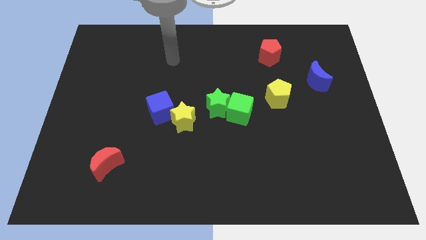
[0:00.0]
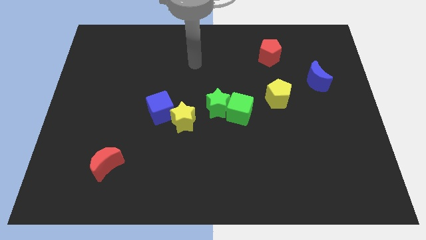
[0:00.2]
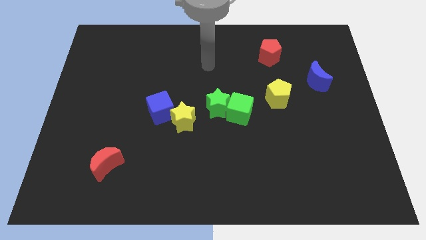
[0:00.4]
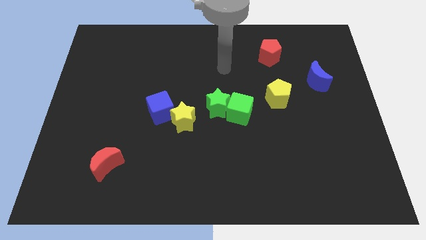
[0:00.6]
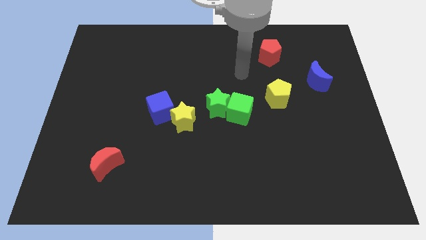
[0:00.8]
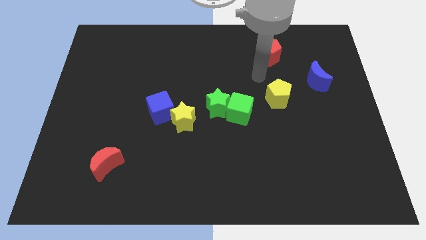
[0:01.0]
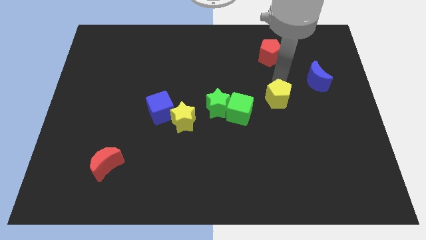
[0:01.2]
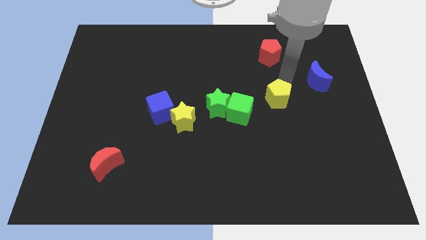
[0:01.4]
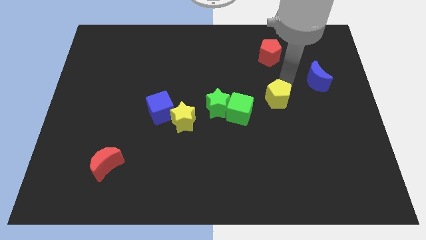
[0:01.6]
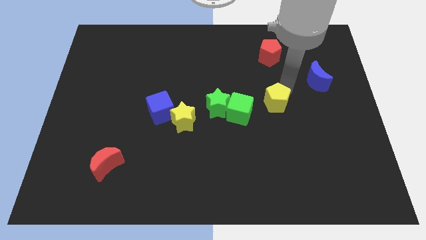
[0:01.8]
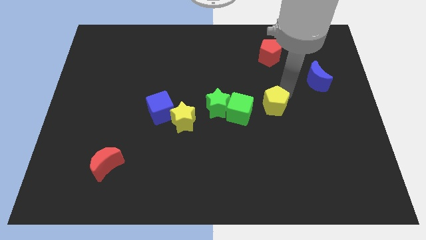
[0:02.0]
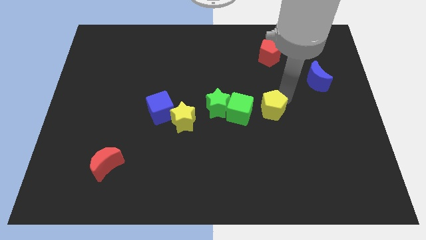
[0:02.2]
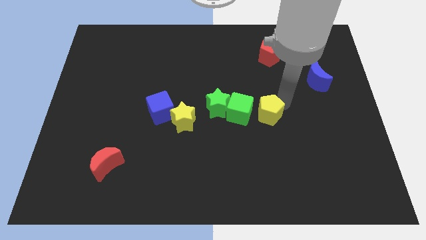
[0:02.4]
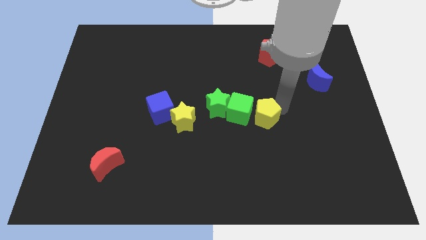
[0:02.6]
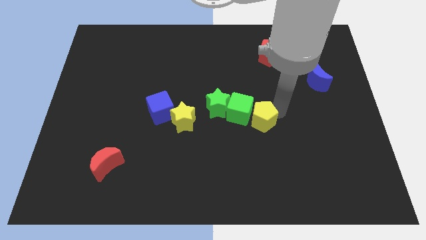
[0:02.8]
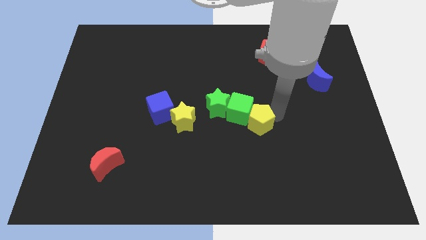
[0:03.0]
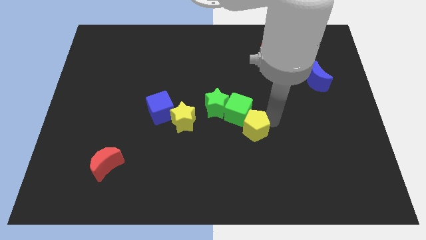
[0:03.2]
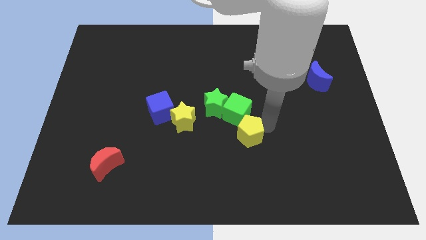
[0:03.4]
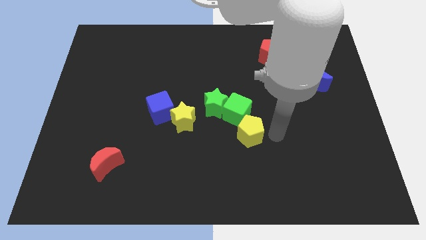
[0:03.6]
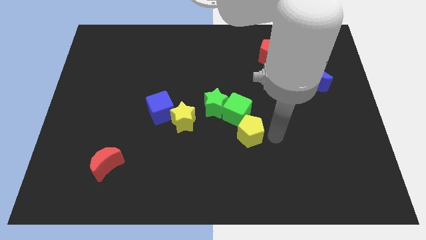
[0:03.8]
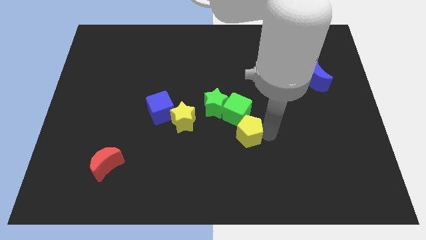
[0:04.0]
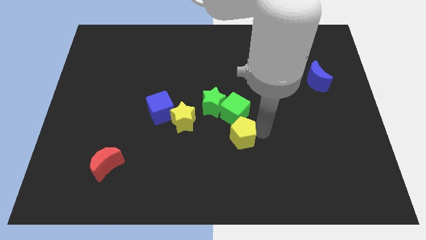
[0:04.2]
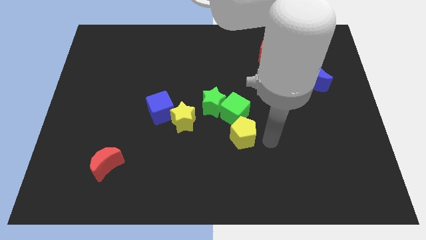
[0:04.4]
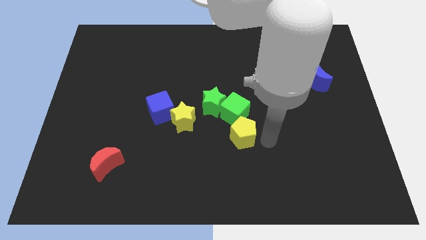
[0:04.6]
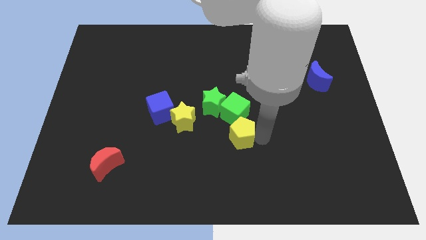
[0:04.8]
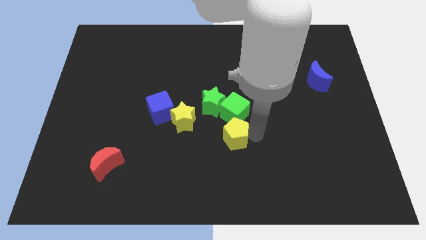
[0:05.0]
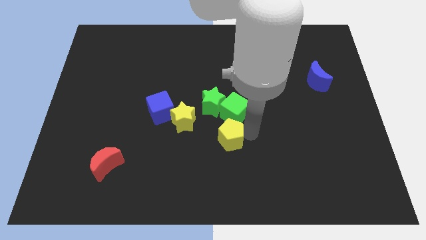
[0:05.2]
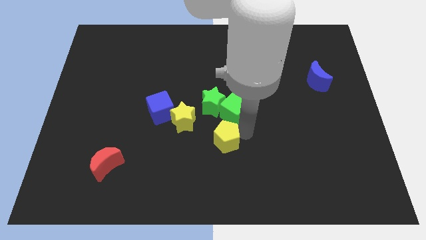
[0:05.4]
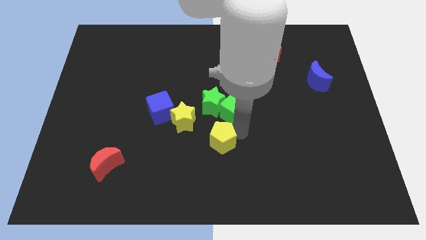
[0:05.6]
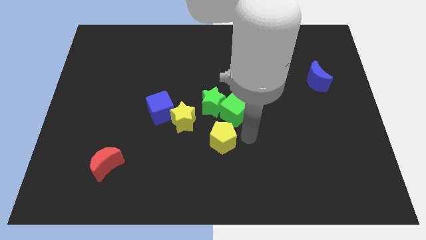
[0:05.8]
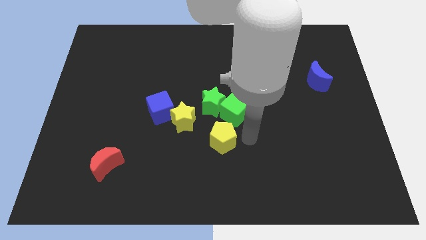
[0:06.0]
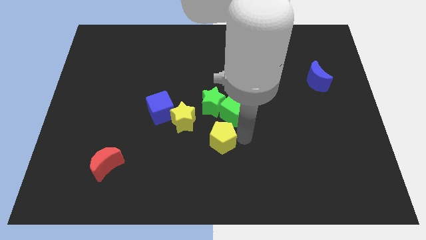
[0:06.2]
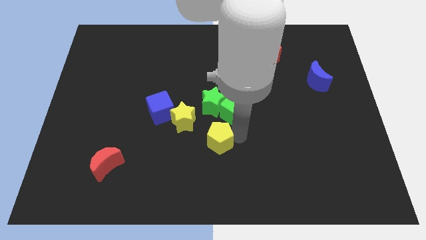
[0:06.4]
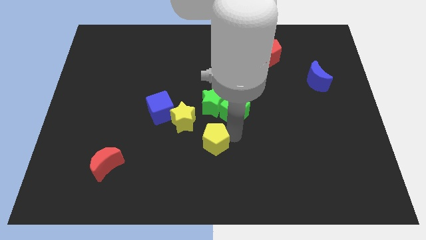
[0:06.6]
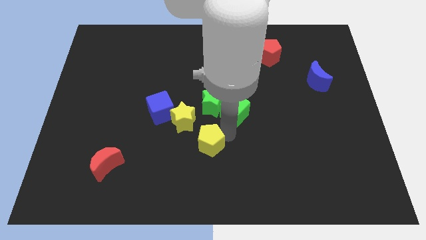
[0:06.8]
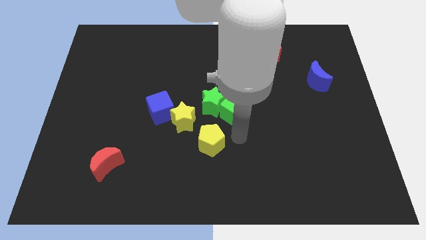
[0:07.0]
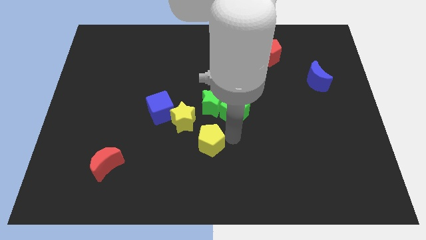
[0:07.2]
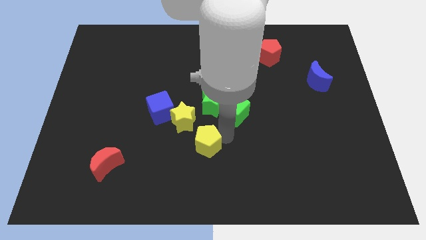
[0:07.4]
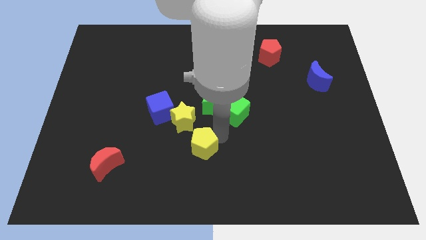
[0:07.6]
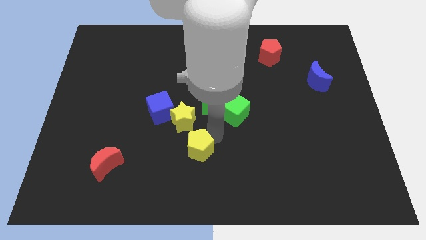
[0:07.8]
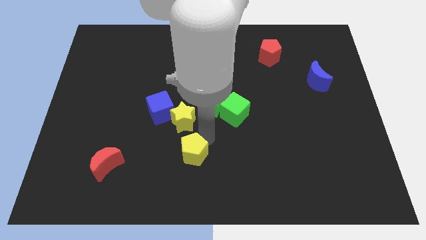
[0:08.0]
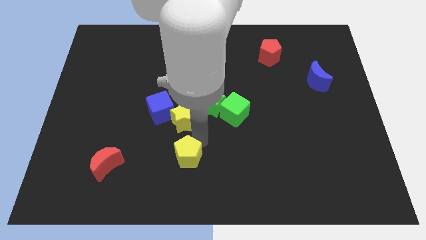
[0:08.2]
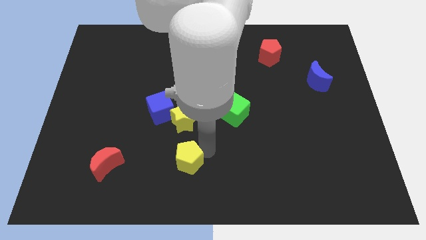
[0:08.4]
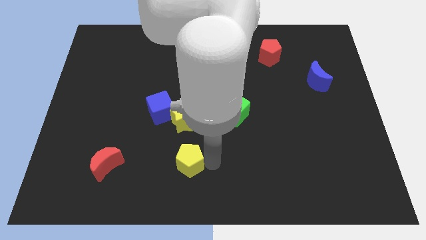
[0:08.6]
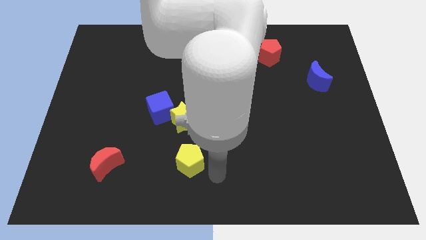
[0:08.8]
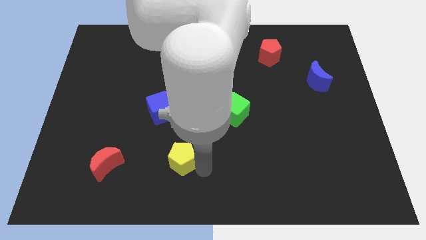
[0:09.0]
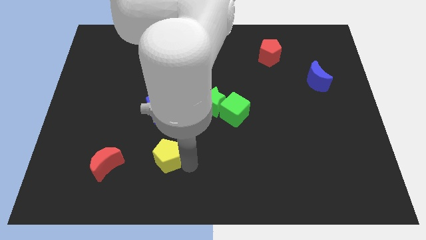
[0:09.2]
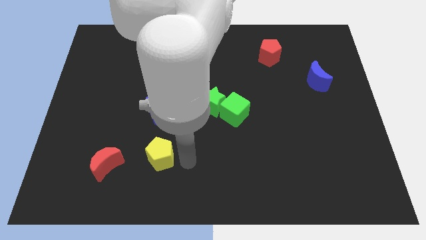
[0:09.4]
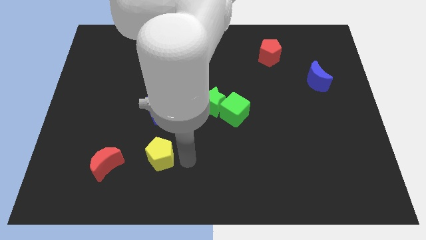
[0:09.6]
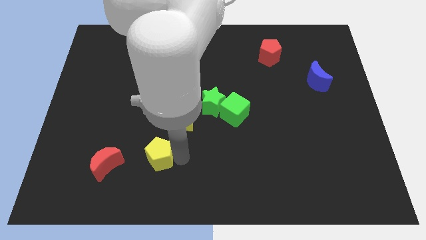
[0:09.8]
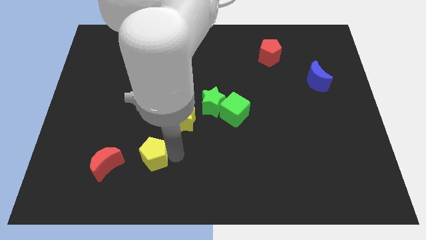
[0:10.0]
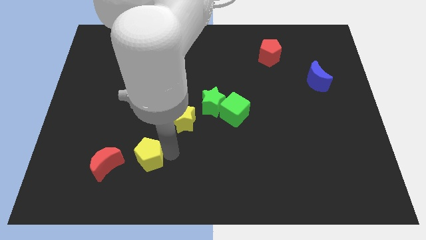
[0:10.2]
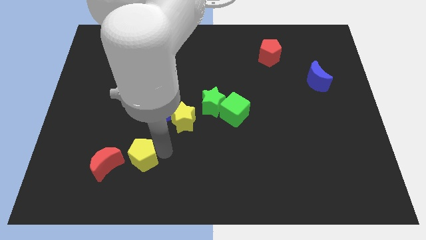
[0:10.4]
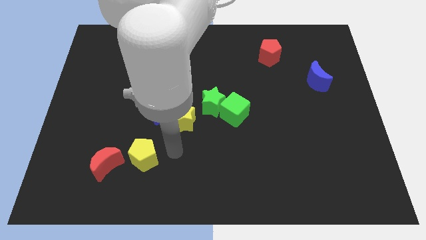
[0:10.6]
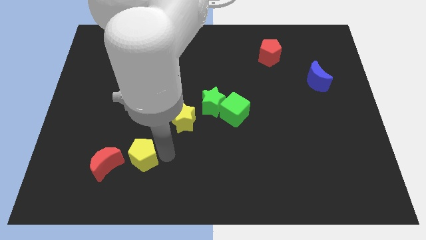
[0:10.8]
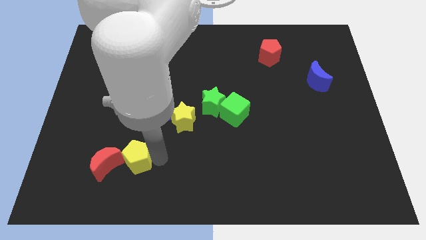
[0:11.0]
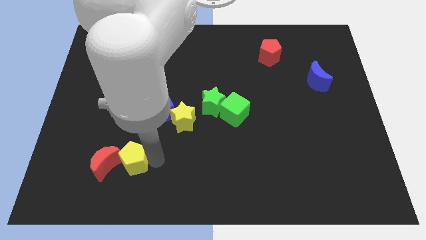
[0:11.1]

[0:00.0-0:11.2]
move the yellow pentagon towards the red moon

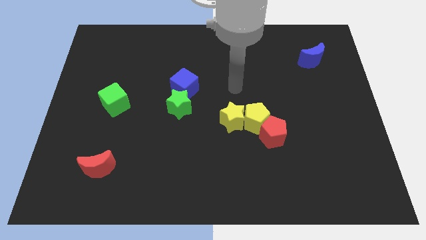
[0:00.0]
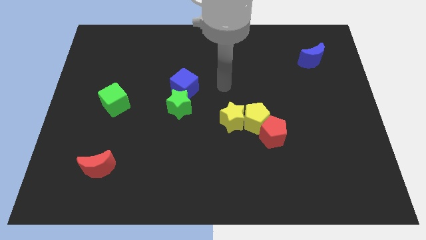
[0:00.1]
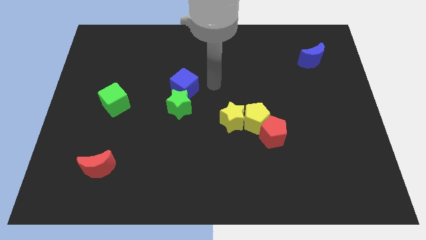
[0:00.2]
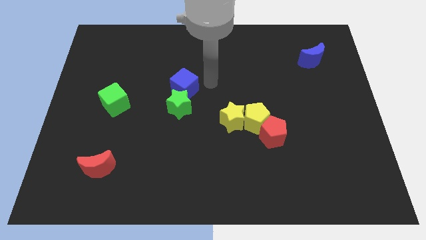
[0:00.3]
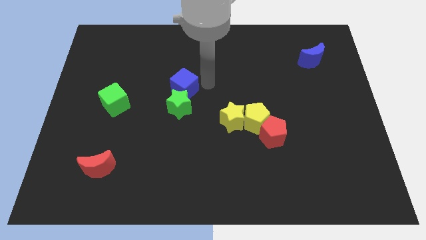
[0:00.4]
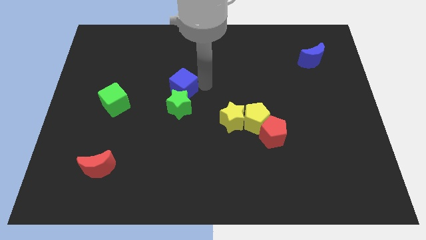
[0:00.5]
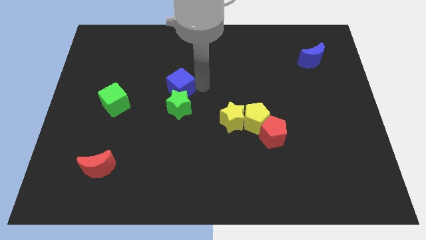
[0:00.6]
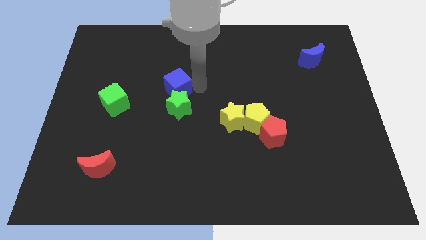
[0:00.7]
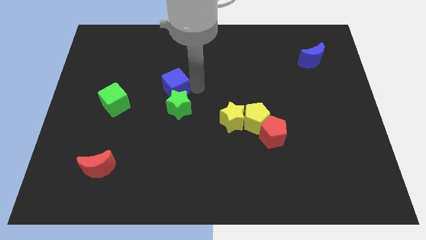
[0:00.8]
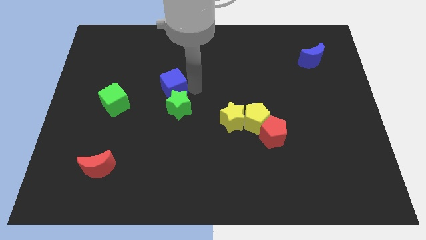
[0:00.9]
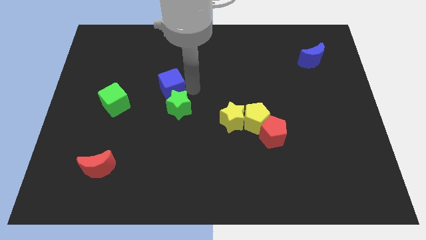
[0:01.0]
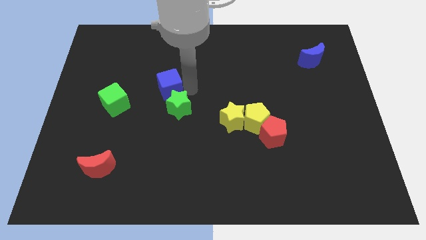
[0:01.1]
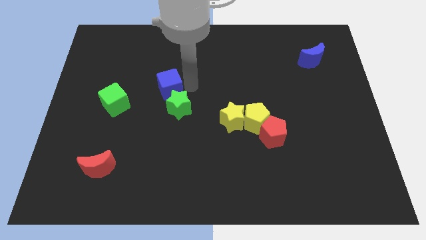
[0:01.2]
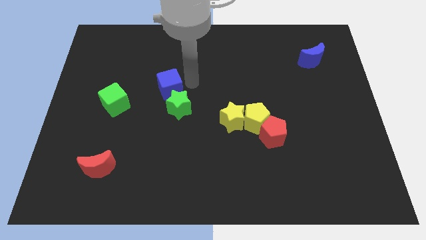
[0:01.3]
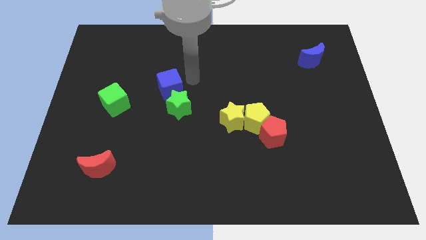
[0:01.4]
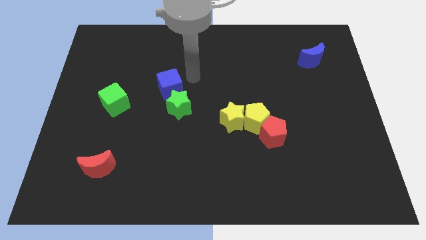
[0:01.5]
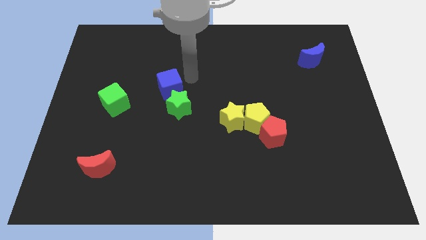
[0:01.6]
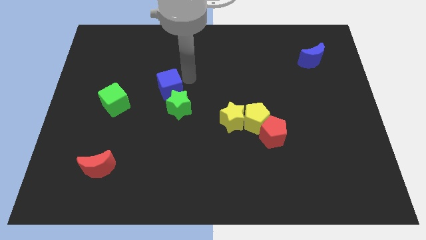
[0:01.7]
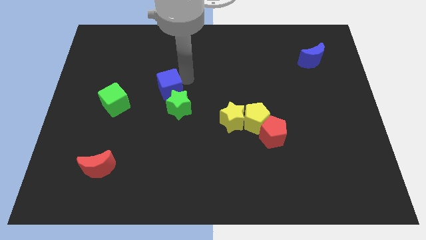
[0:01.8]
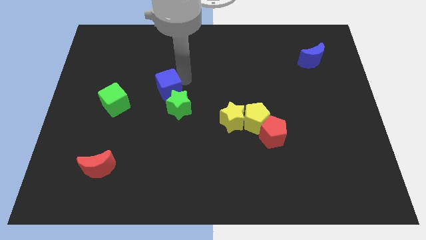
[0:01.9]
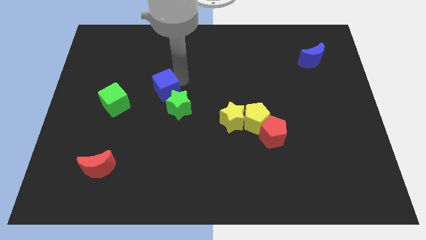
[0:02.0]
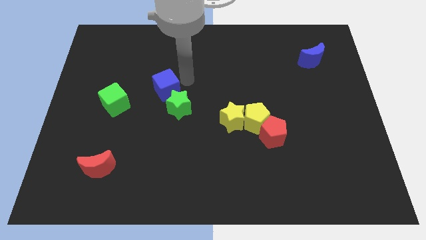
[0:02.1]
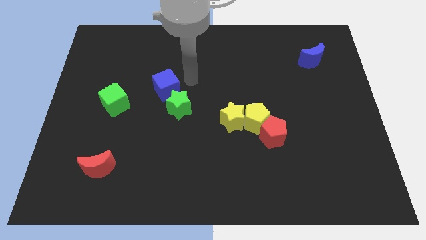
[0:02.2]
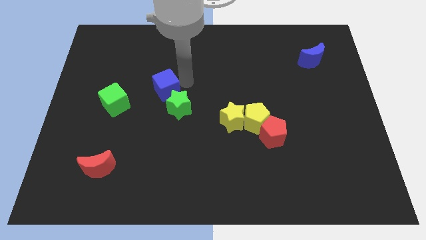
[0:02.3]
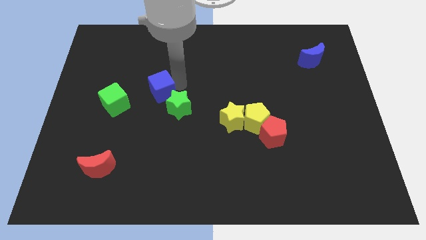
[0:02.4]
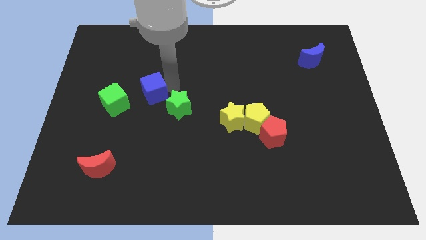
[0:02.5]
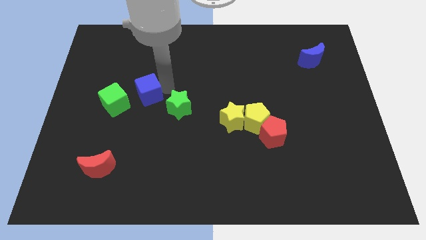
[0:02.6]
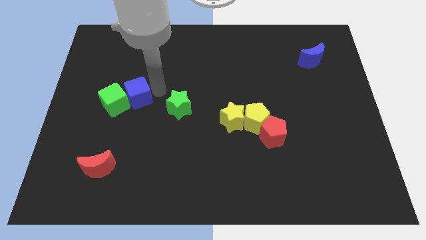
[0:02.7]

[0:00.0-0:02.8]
move the blue cube next to the green cube
